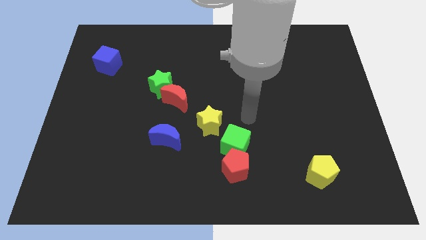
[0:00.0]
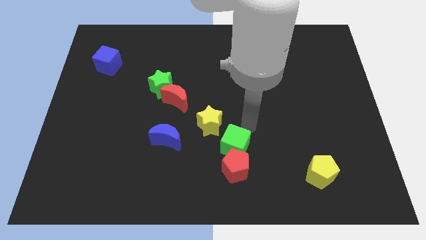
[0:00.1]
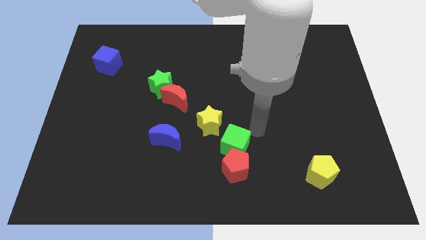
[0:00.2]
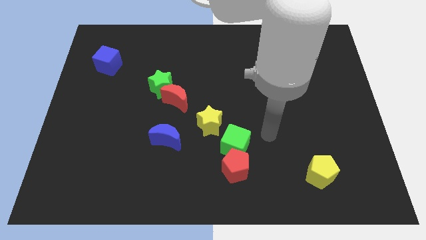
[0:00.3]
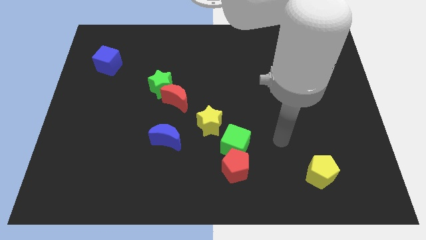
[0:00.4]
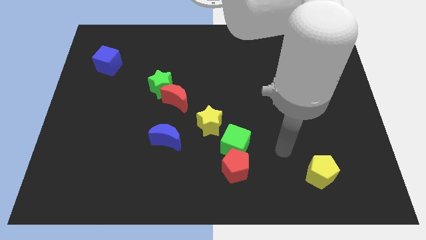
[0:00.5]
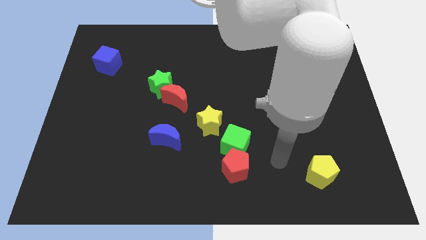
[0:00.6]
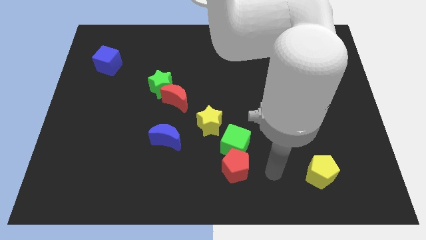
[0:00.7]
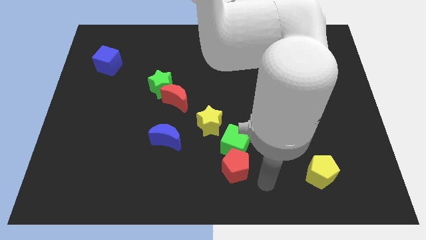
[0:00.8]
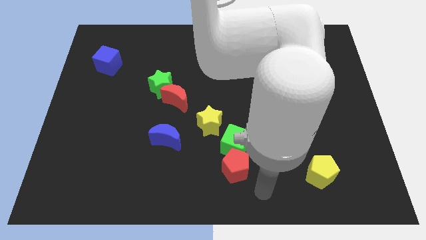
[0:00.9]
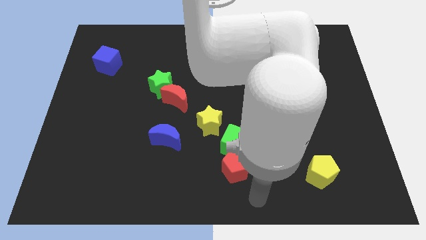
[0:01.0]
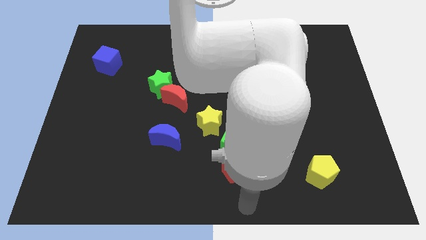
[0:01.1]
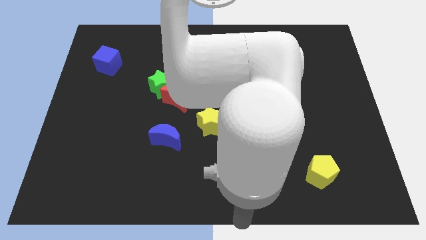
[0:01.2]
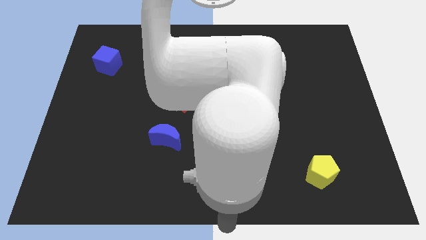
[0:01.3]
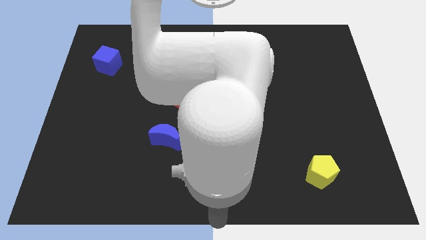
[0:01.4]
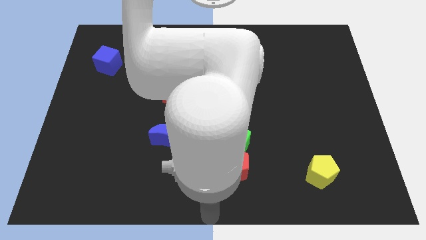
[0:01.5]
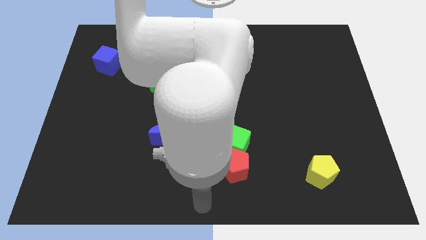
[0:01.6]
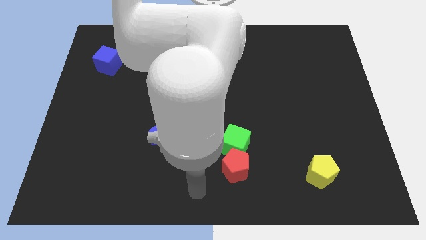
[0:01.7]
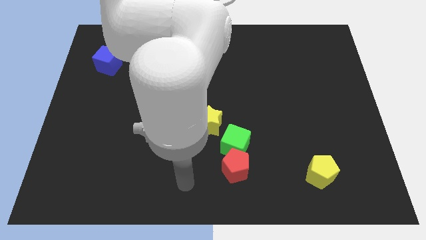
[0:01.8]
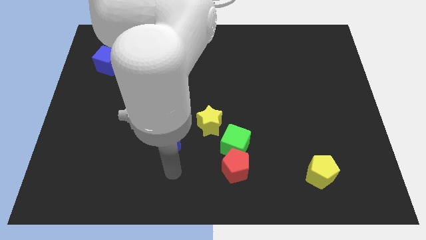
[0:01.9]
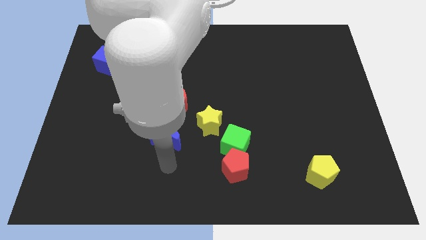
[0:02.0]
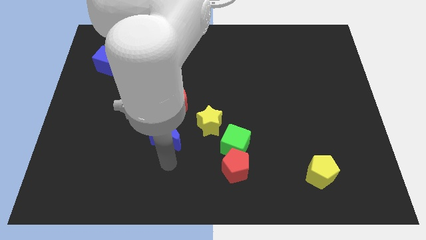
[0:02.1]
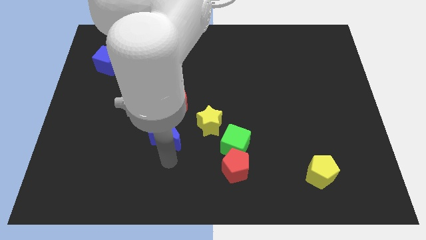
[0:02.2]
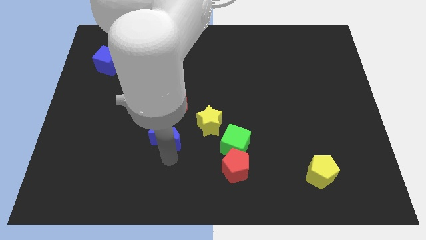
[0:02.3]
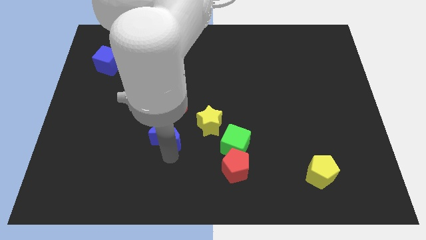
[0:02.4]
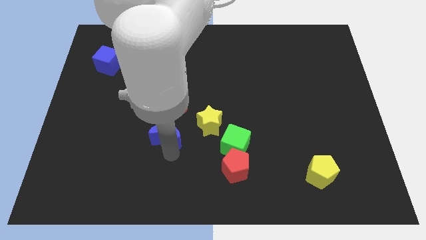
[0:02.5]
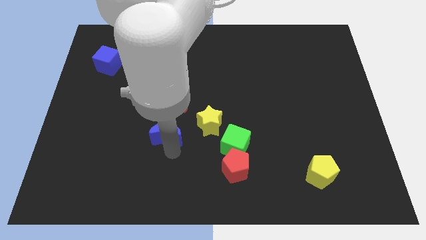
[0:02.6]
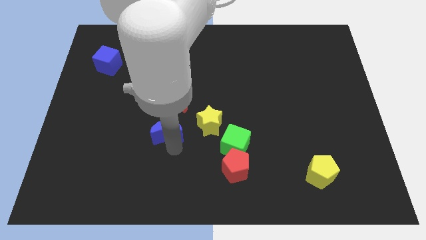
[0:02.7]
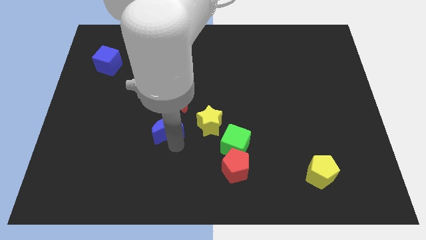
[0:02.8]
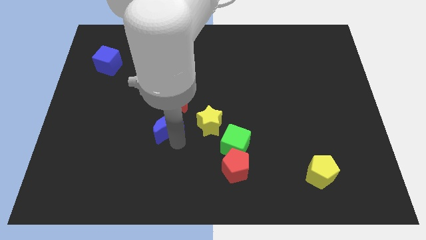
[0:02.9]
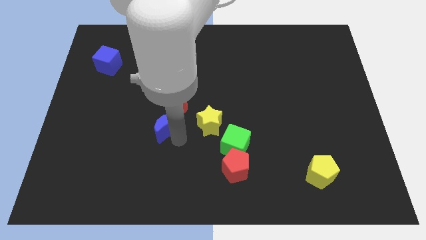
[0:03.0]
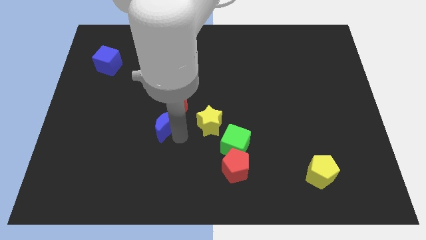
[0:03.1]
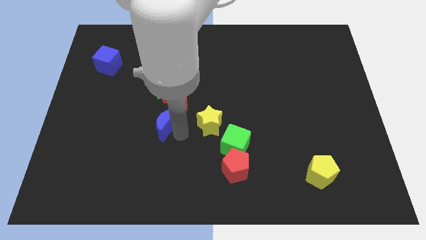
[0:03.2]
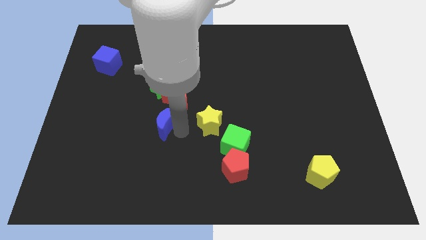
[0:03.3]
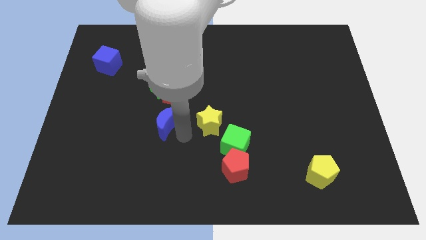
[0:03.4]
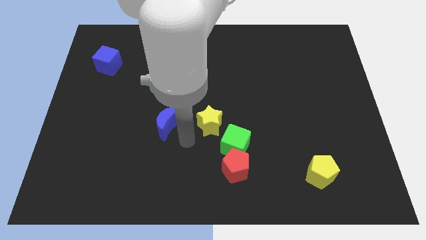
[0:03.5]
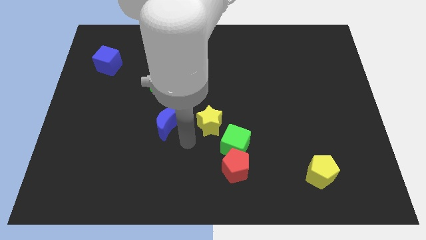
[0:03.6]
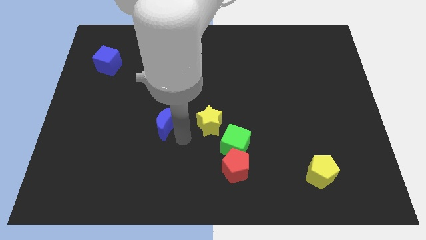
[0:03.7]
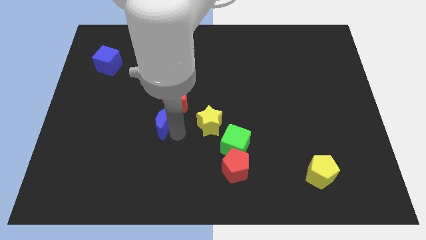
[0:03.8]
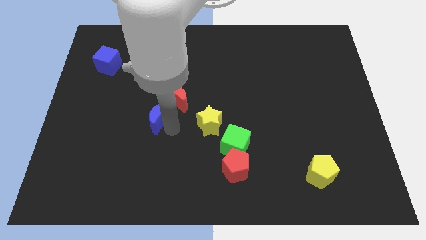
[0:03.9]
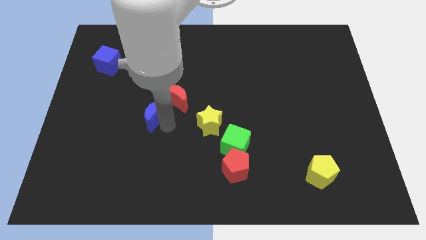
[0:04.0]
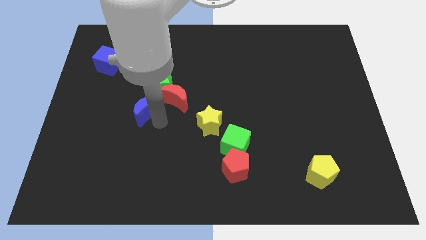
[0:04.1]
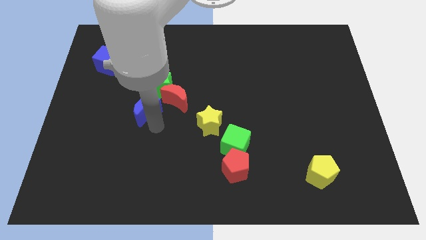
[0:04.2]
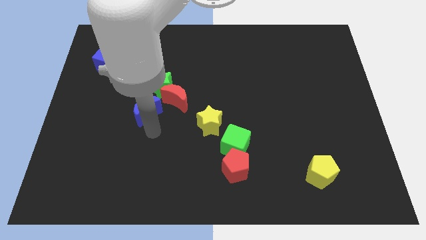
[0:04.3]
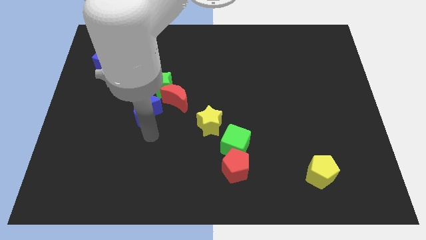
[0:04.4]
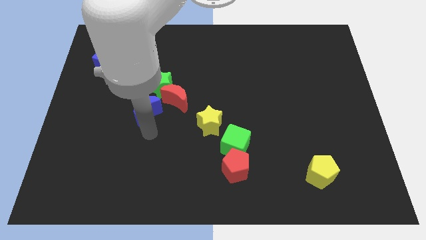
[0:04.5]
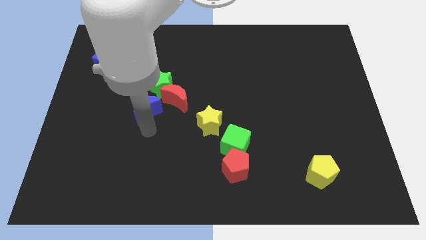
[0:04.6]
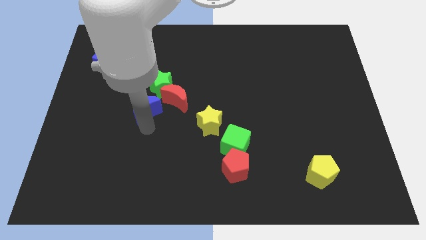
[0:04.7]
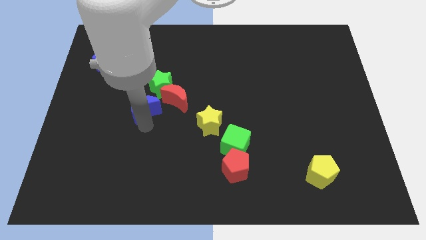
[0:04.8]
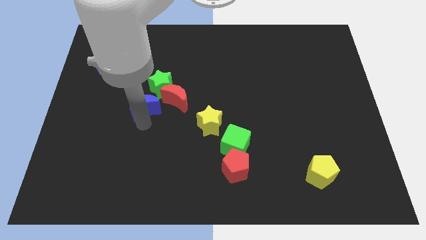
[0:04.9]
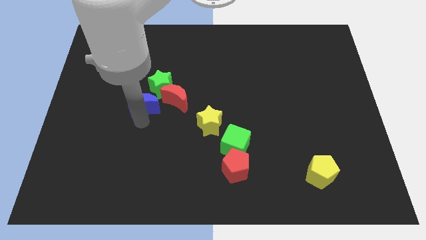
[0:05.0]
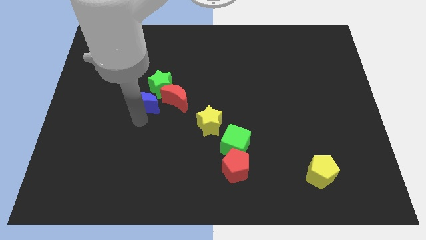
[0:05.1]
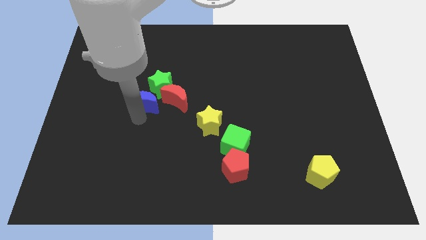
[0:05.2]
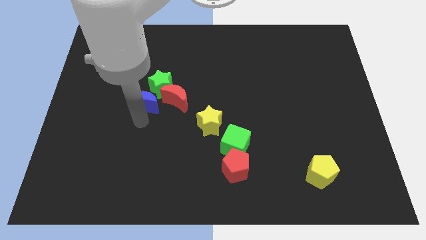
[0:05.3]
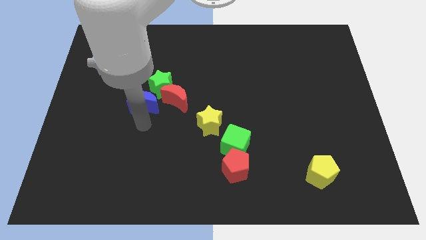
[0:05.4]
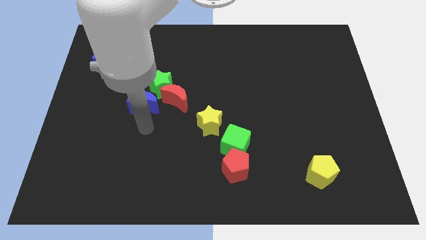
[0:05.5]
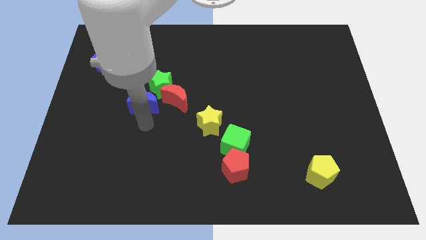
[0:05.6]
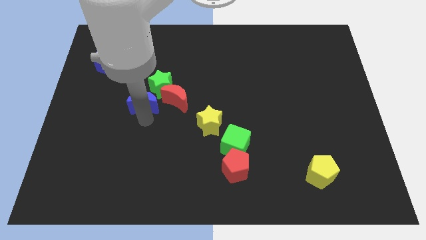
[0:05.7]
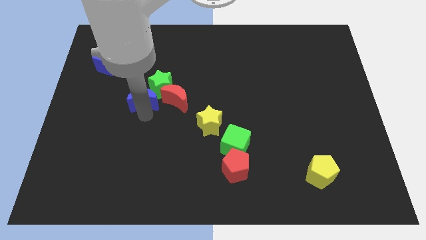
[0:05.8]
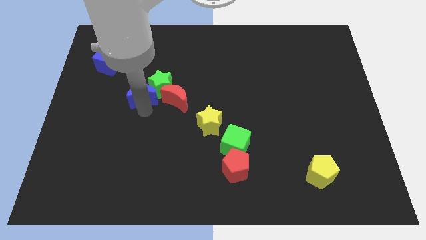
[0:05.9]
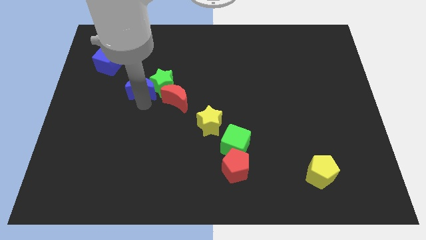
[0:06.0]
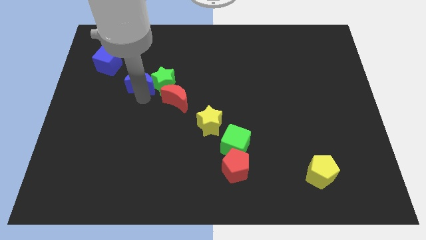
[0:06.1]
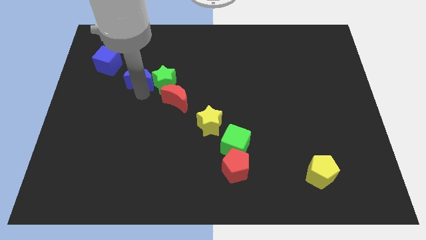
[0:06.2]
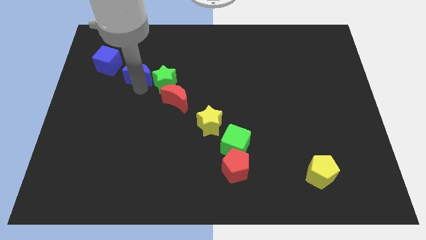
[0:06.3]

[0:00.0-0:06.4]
slide the blue moon just right of the blue cube

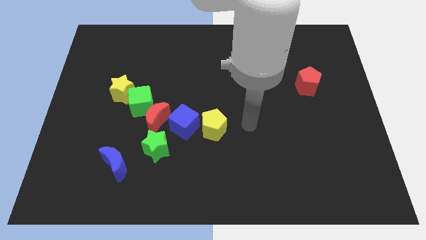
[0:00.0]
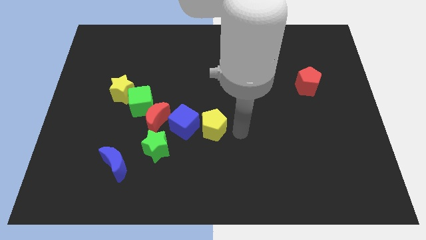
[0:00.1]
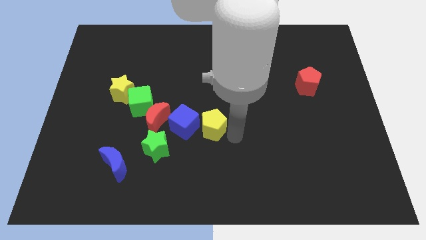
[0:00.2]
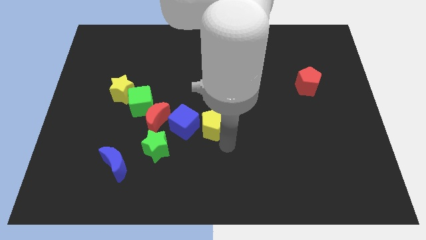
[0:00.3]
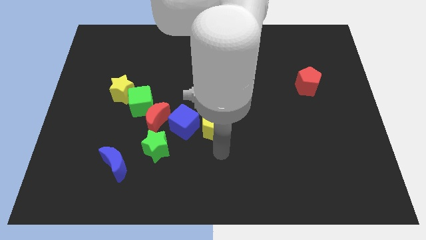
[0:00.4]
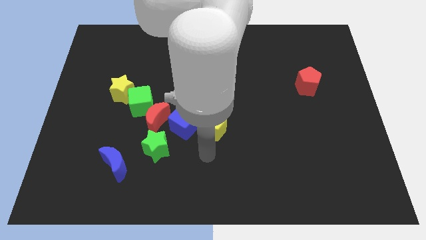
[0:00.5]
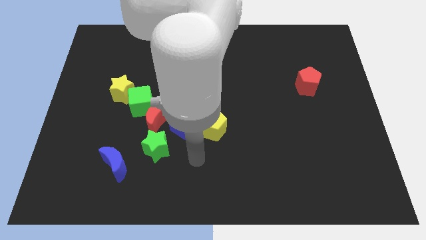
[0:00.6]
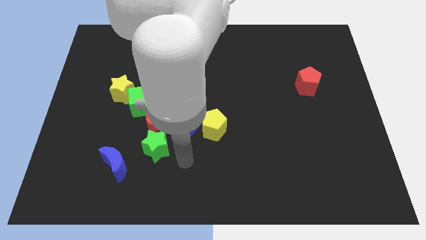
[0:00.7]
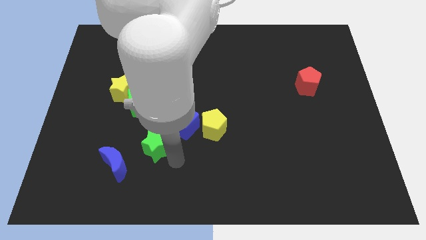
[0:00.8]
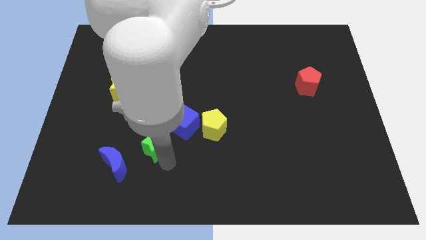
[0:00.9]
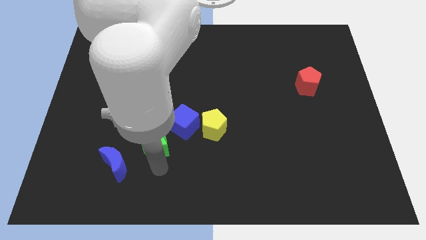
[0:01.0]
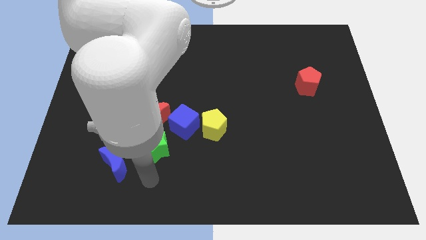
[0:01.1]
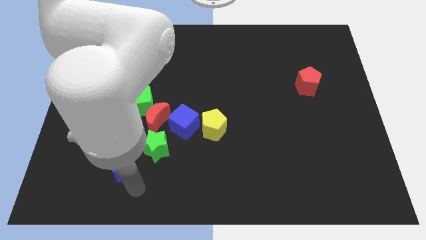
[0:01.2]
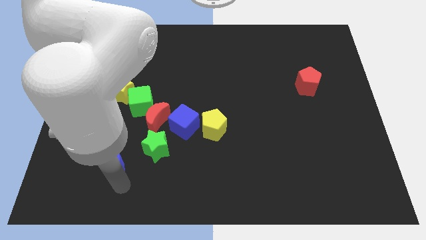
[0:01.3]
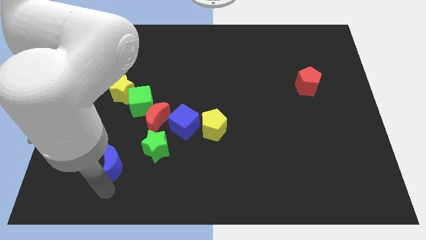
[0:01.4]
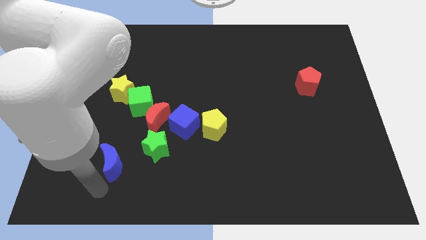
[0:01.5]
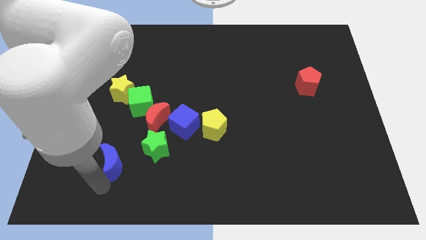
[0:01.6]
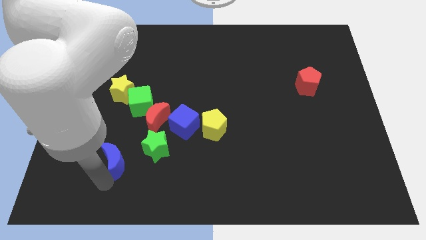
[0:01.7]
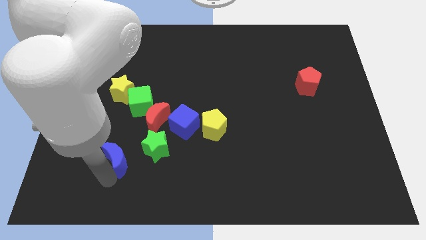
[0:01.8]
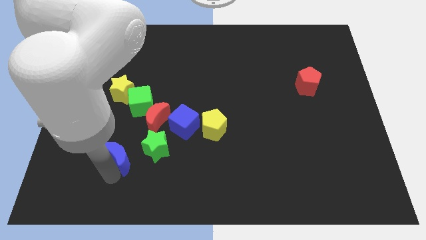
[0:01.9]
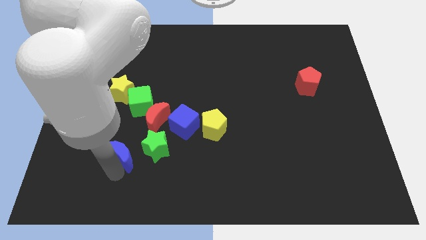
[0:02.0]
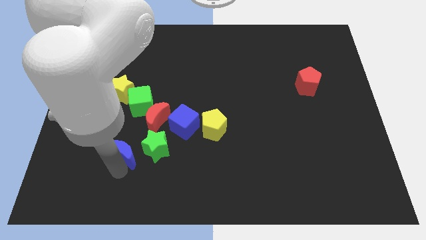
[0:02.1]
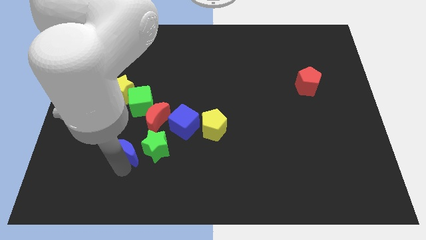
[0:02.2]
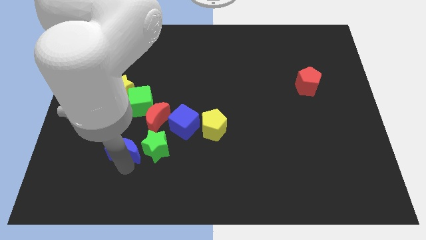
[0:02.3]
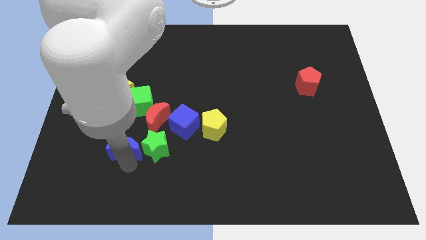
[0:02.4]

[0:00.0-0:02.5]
move the blue moon to the top left of the green star
